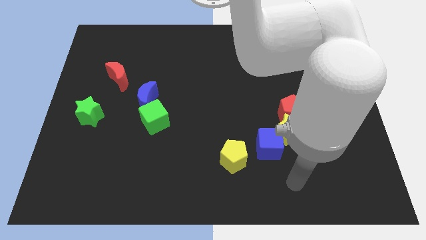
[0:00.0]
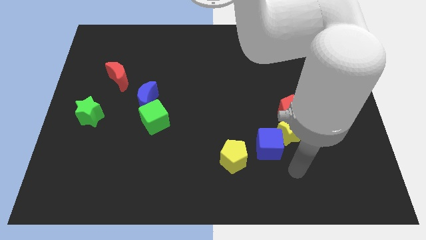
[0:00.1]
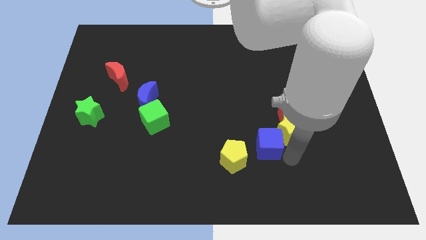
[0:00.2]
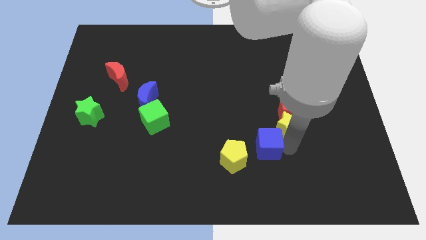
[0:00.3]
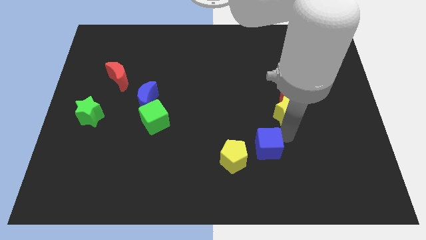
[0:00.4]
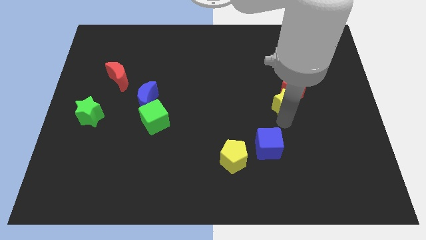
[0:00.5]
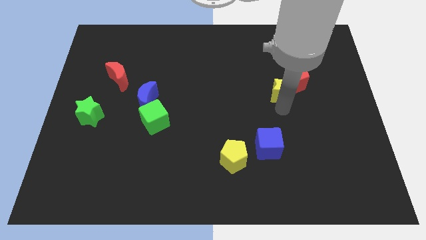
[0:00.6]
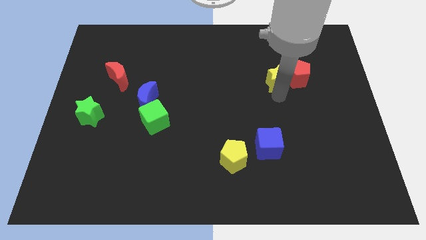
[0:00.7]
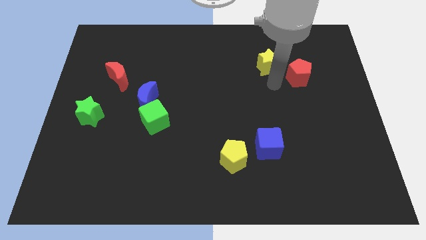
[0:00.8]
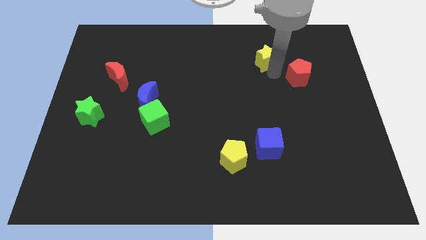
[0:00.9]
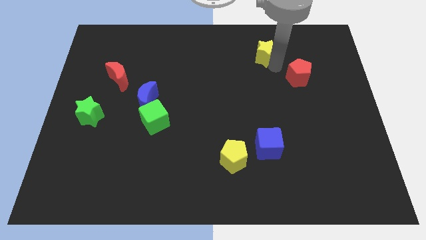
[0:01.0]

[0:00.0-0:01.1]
separate the red pentagon from the yellow star

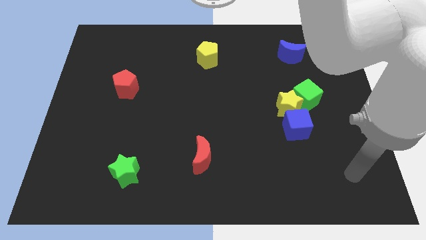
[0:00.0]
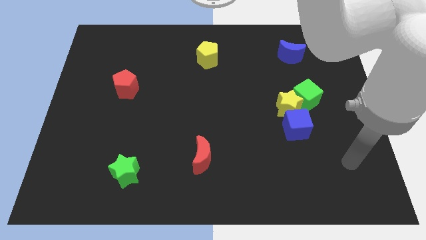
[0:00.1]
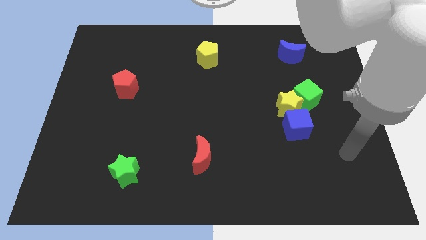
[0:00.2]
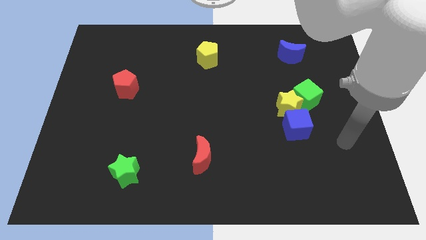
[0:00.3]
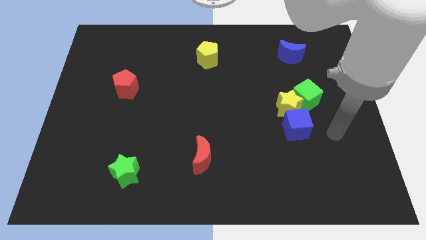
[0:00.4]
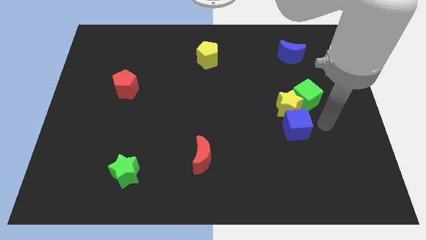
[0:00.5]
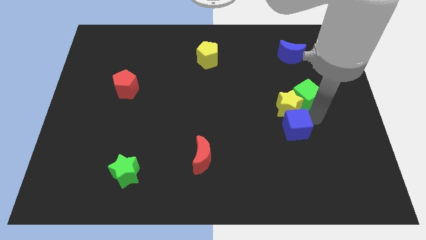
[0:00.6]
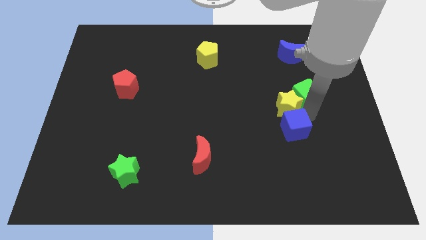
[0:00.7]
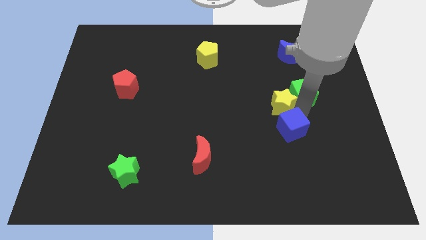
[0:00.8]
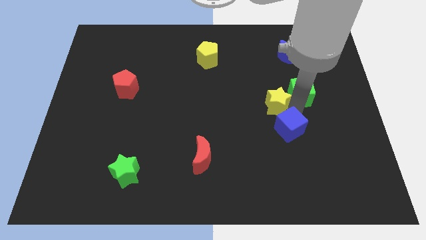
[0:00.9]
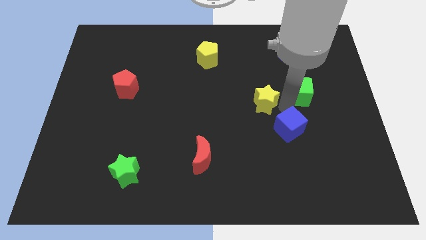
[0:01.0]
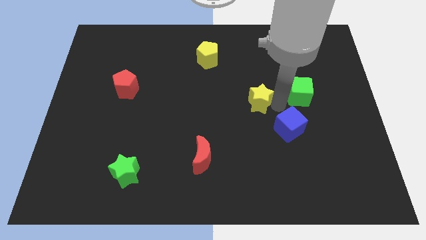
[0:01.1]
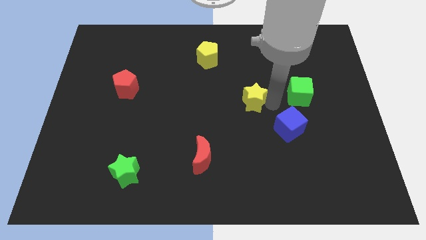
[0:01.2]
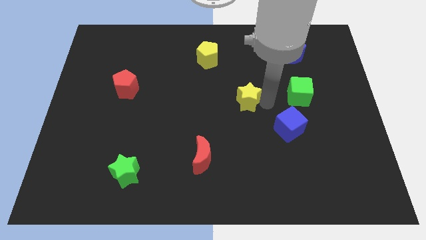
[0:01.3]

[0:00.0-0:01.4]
separate the yellow star from the green cube and blue cube

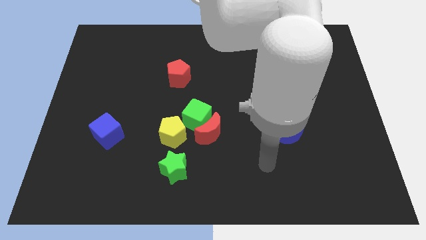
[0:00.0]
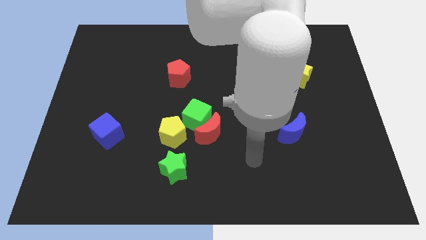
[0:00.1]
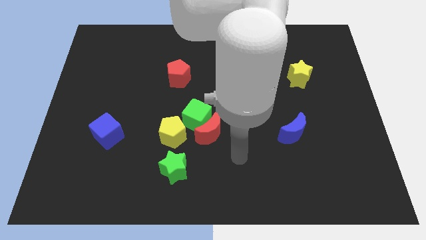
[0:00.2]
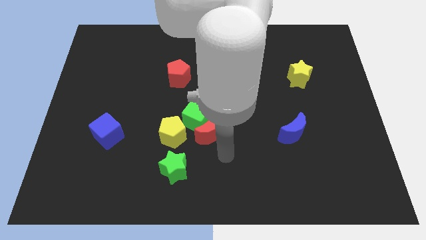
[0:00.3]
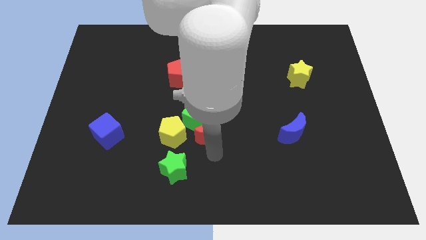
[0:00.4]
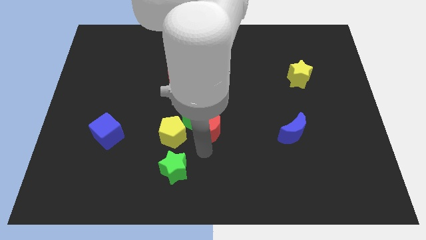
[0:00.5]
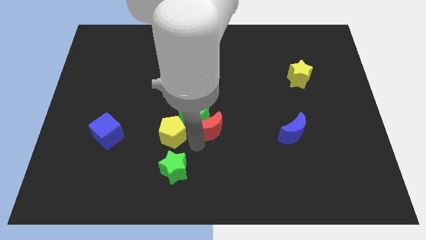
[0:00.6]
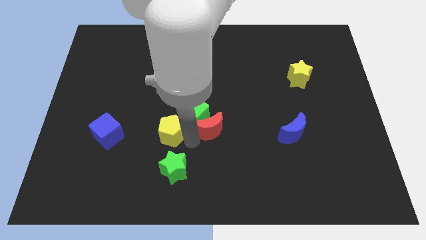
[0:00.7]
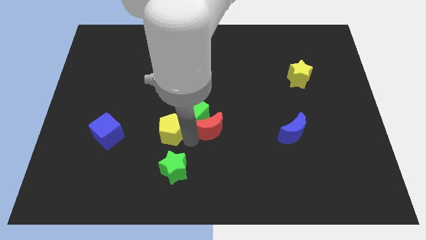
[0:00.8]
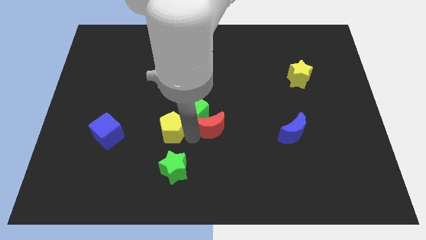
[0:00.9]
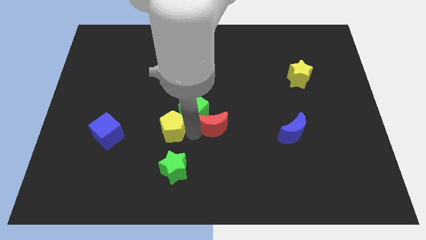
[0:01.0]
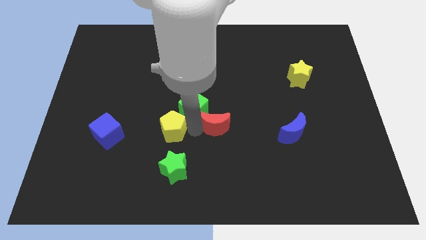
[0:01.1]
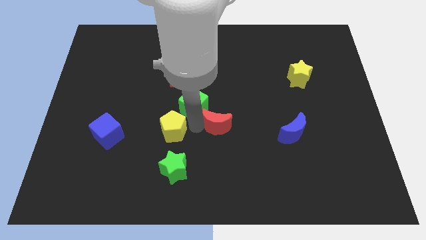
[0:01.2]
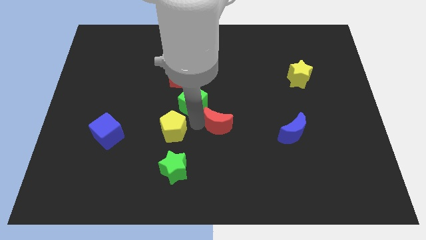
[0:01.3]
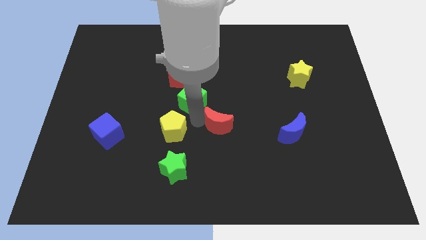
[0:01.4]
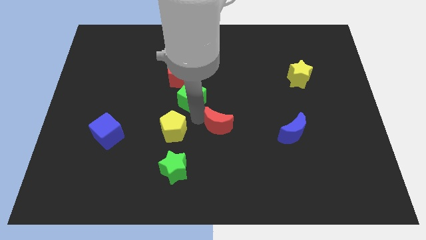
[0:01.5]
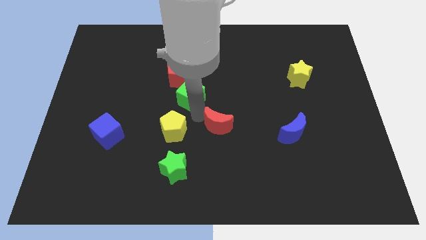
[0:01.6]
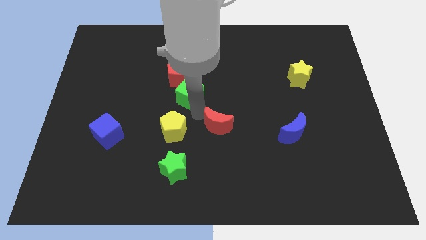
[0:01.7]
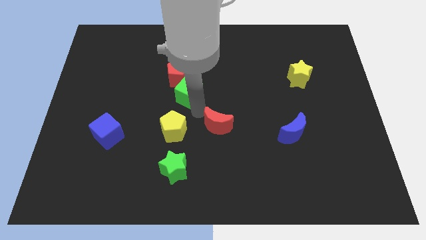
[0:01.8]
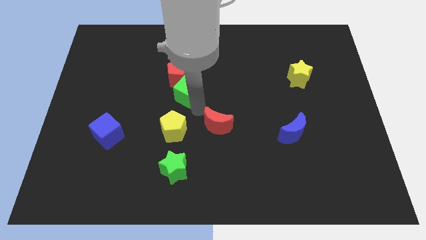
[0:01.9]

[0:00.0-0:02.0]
separate the green cube from the red moon and yellow pentagon

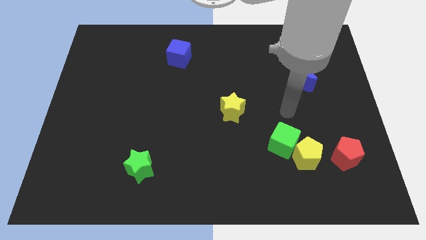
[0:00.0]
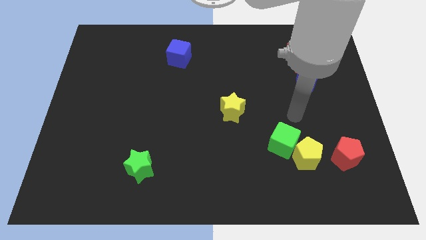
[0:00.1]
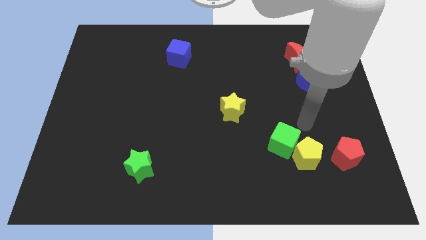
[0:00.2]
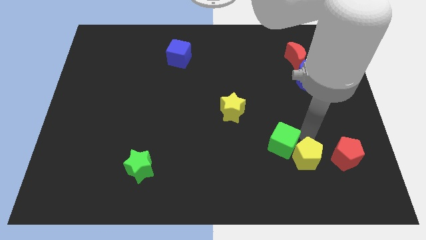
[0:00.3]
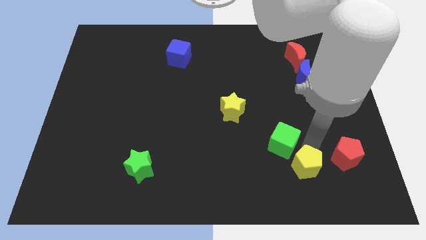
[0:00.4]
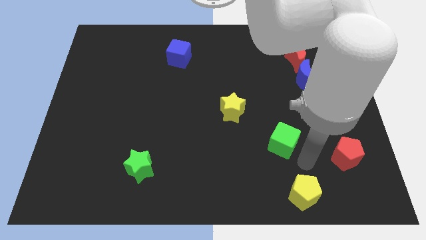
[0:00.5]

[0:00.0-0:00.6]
separate the green cube from the yellow pentagon

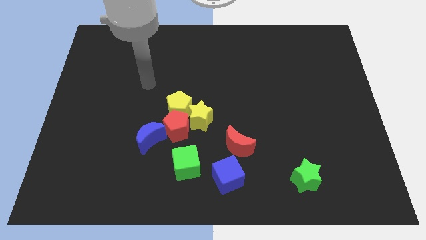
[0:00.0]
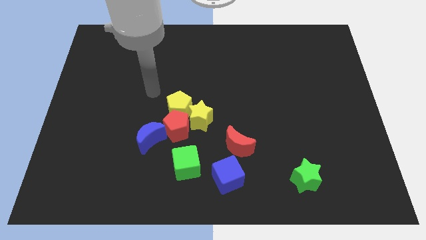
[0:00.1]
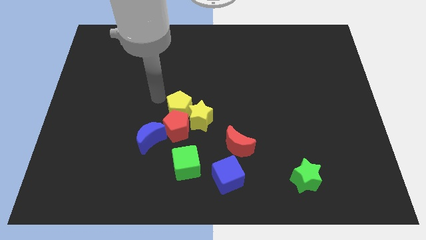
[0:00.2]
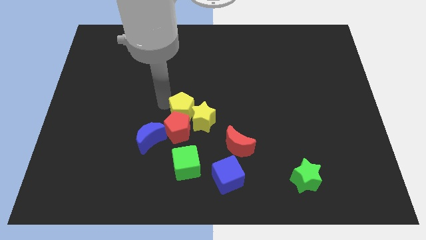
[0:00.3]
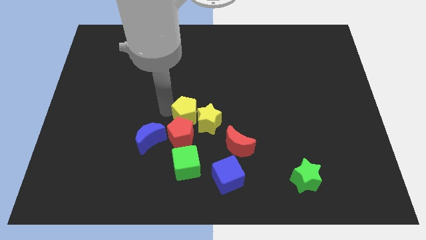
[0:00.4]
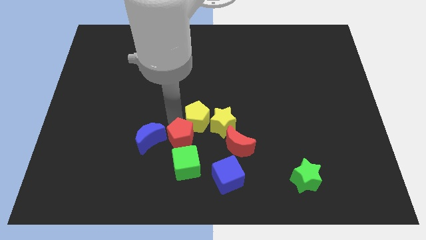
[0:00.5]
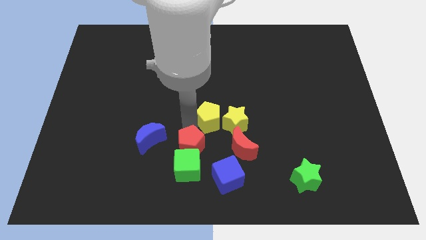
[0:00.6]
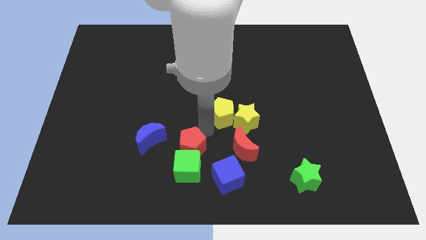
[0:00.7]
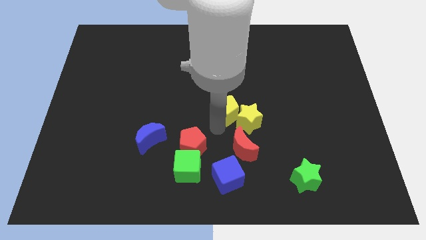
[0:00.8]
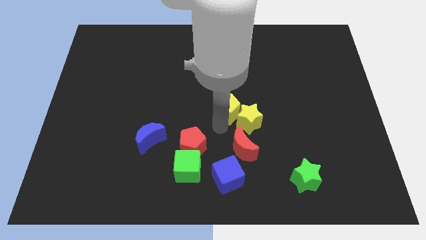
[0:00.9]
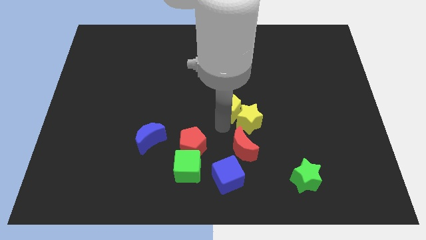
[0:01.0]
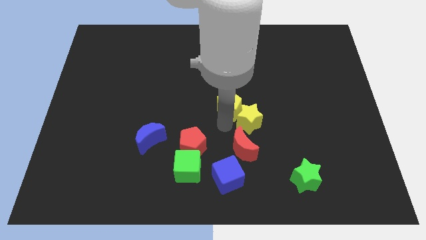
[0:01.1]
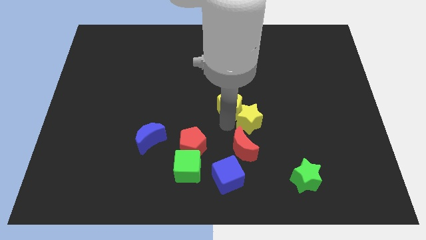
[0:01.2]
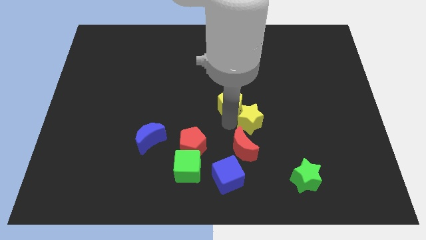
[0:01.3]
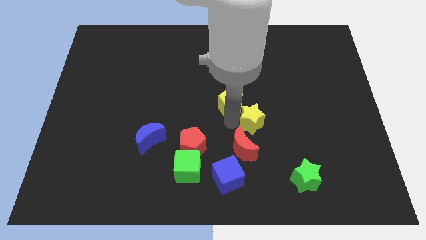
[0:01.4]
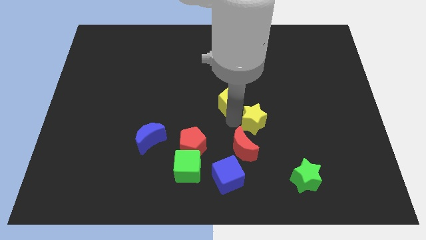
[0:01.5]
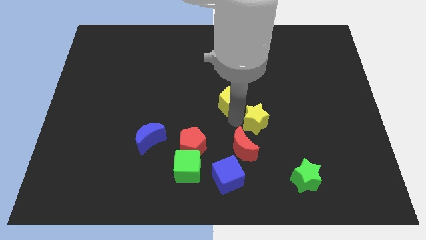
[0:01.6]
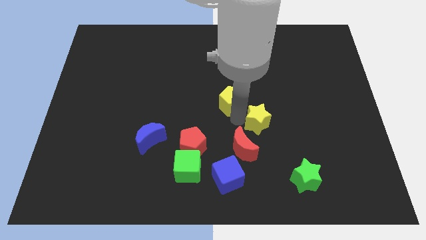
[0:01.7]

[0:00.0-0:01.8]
separate the yellow star from the yellow pentagon and red pentagon

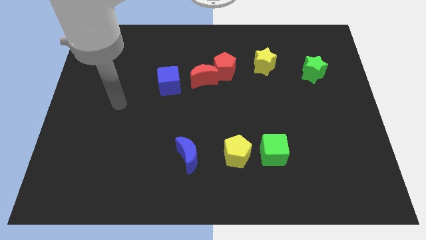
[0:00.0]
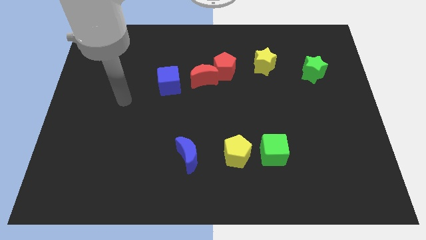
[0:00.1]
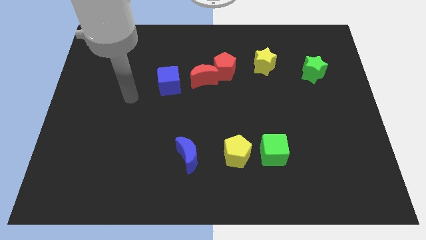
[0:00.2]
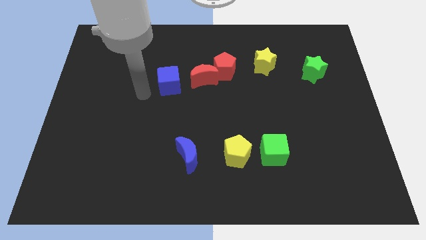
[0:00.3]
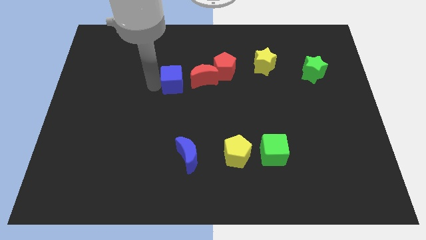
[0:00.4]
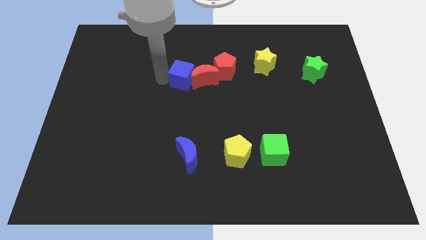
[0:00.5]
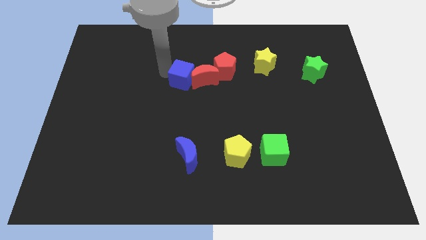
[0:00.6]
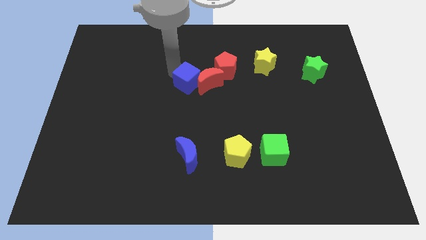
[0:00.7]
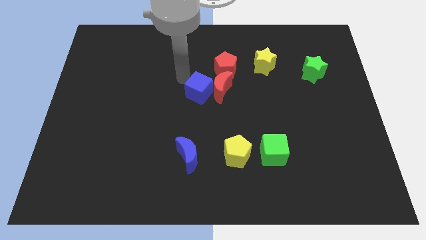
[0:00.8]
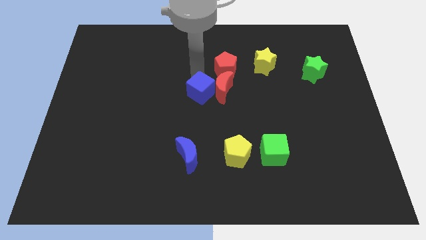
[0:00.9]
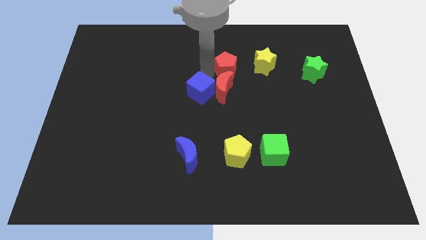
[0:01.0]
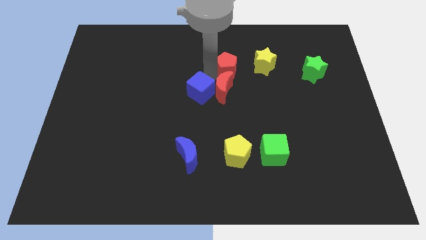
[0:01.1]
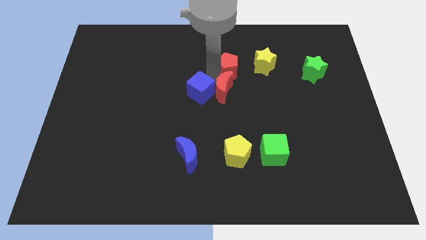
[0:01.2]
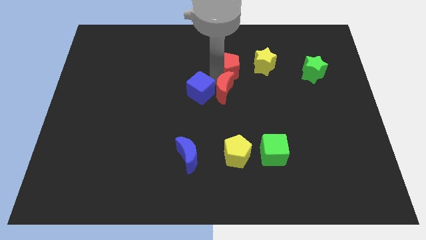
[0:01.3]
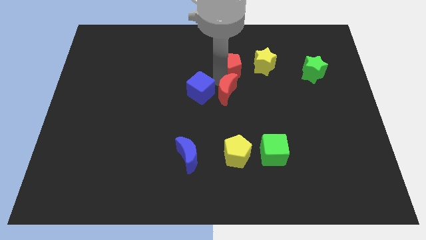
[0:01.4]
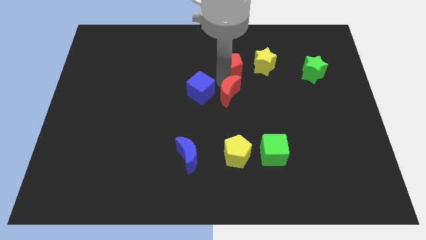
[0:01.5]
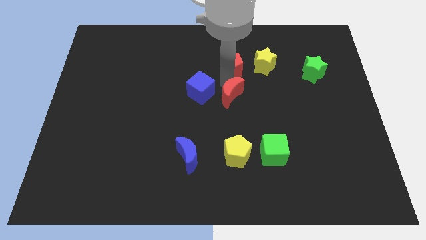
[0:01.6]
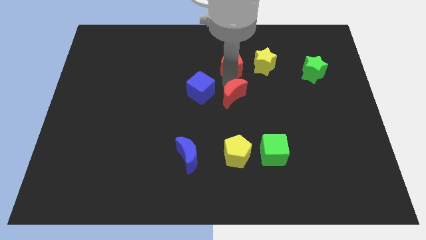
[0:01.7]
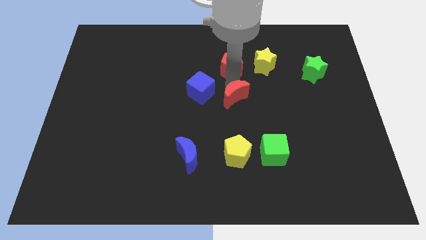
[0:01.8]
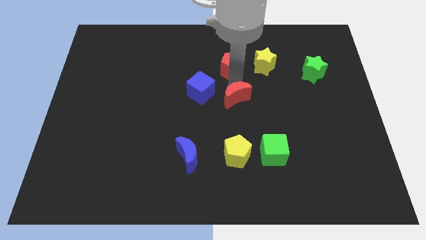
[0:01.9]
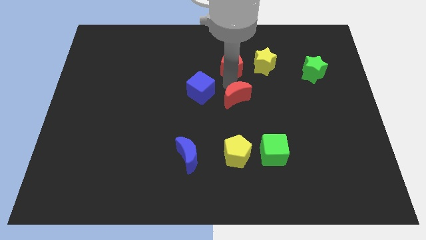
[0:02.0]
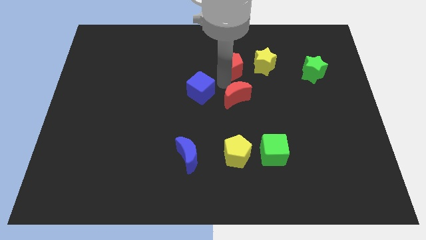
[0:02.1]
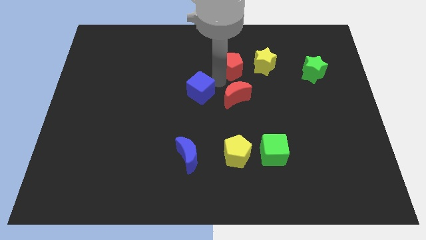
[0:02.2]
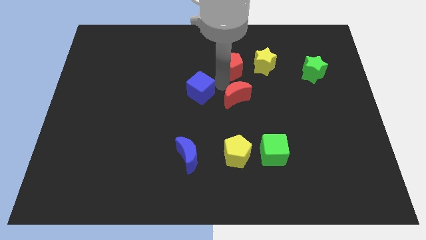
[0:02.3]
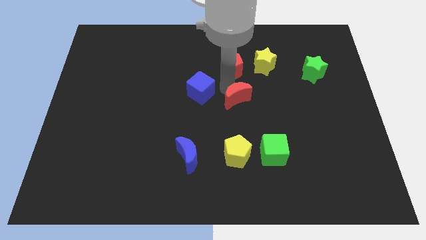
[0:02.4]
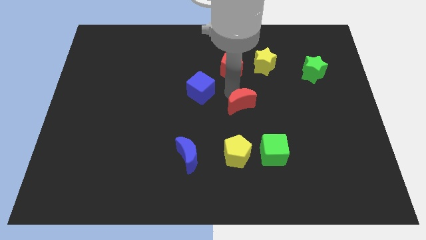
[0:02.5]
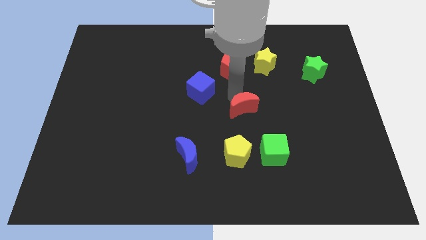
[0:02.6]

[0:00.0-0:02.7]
move the red moon away from the red pentagon and blue cube
